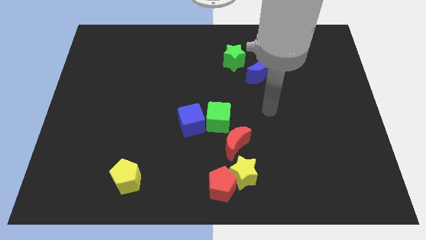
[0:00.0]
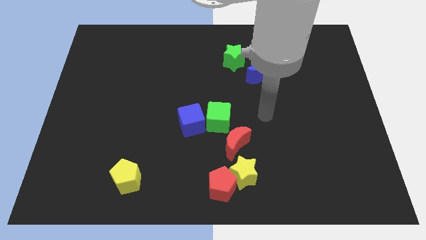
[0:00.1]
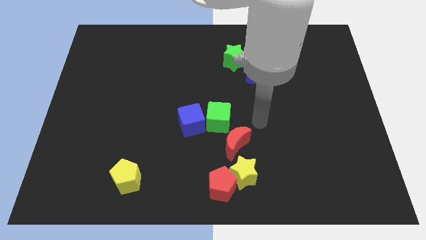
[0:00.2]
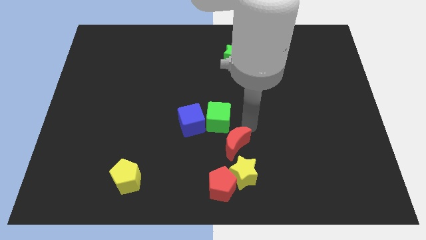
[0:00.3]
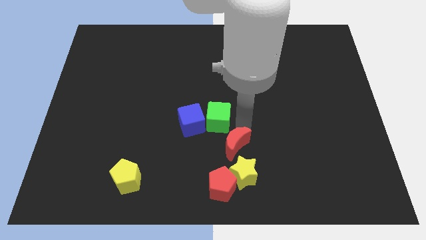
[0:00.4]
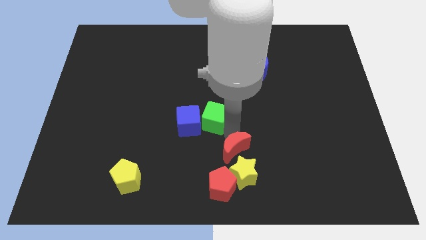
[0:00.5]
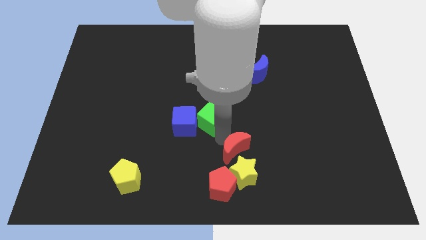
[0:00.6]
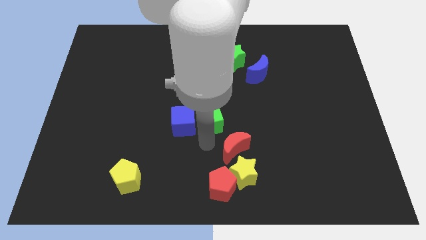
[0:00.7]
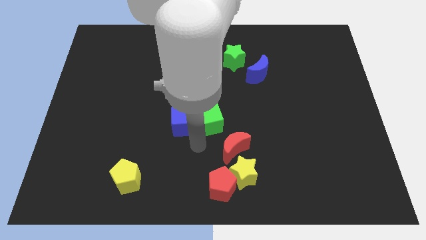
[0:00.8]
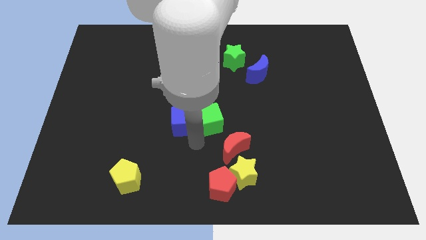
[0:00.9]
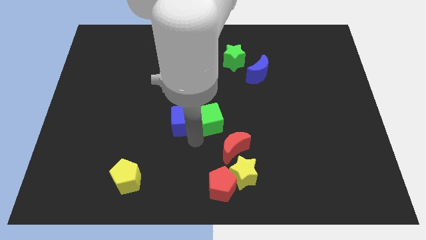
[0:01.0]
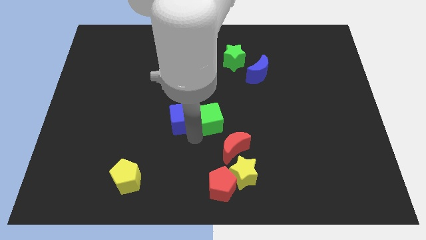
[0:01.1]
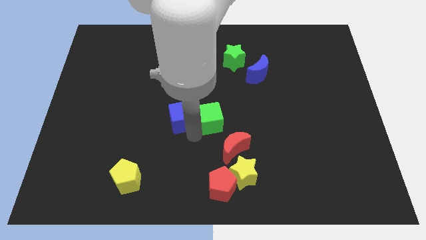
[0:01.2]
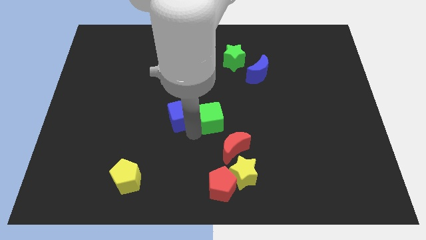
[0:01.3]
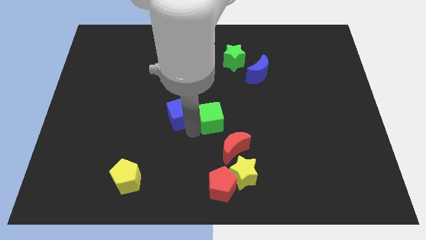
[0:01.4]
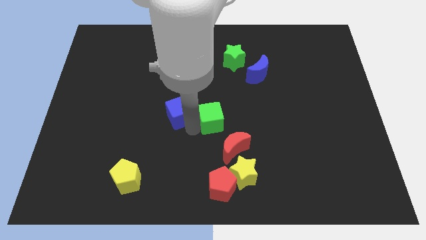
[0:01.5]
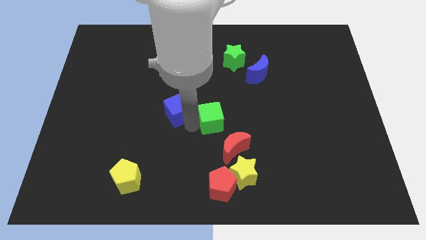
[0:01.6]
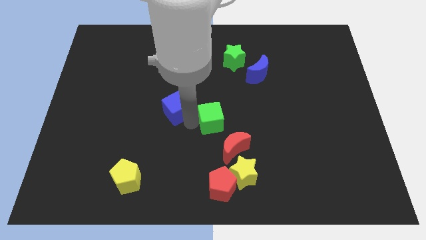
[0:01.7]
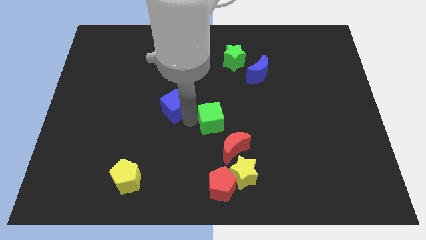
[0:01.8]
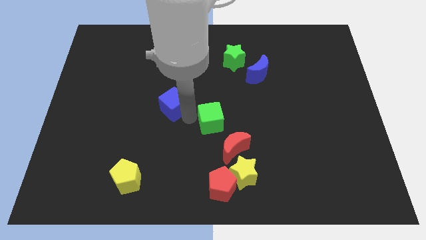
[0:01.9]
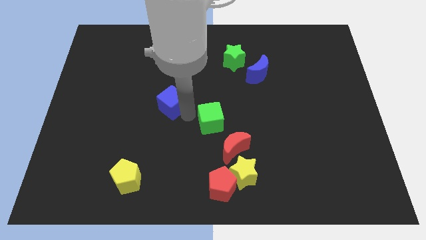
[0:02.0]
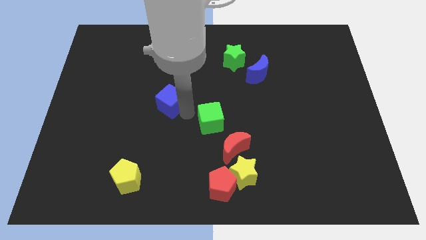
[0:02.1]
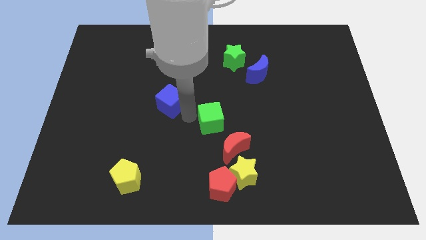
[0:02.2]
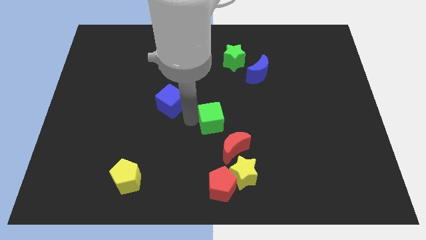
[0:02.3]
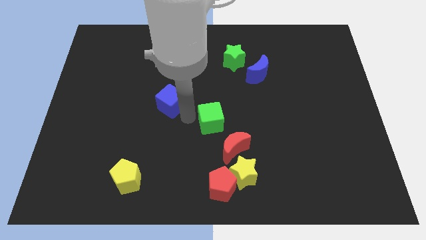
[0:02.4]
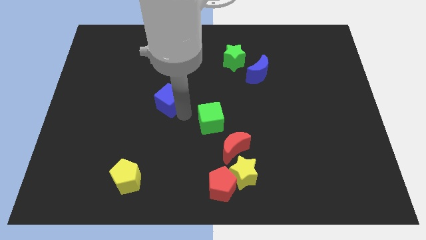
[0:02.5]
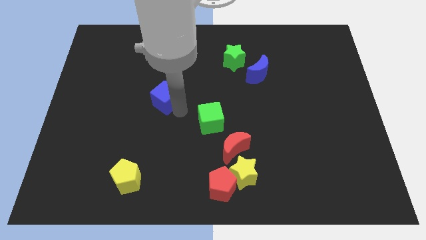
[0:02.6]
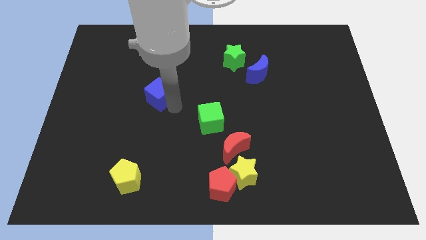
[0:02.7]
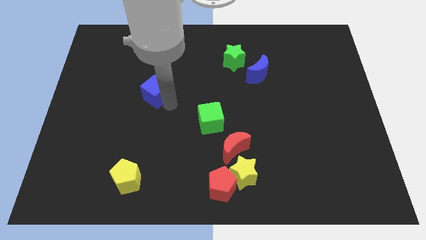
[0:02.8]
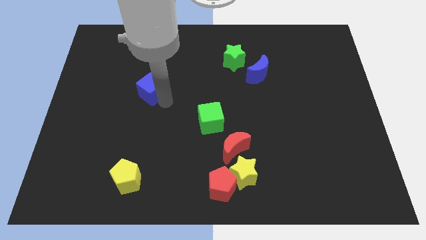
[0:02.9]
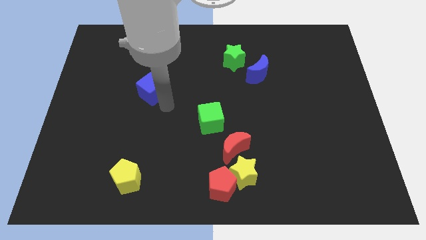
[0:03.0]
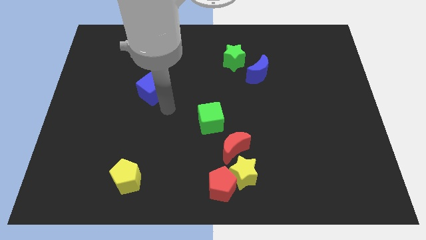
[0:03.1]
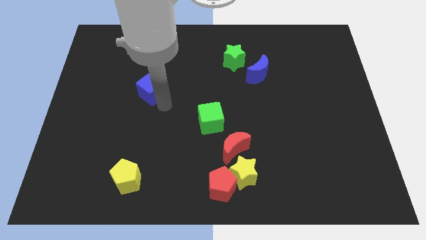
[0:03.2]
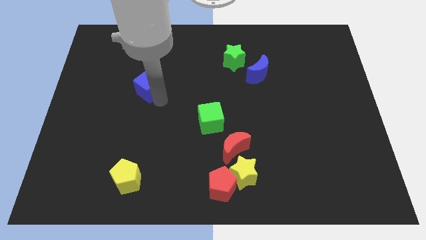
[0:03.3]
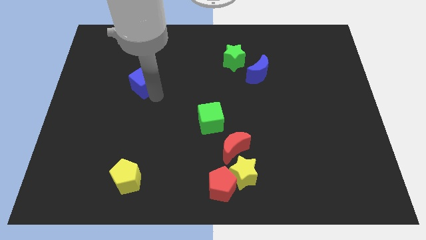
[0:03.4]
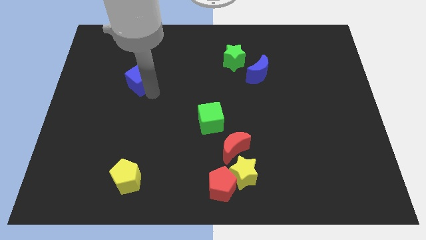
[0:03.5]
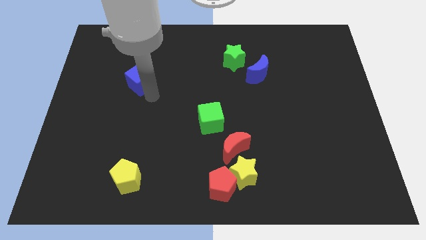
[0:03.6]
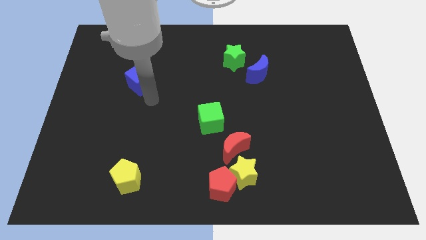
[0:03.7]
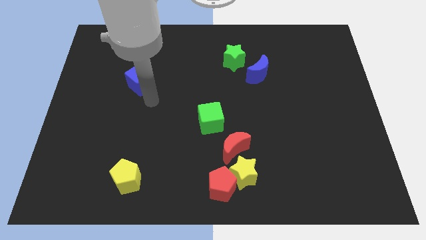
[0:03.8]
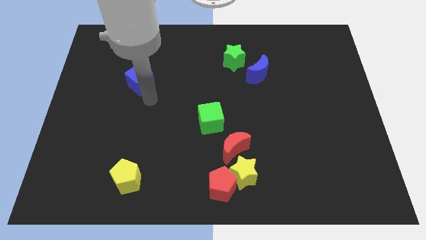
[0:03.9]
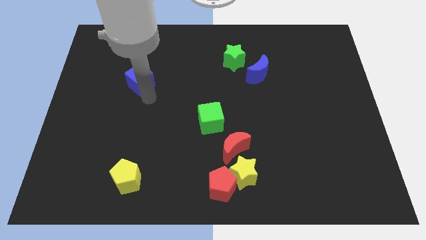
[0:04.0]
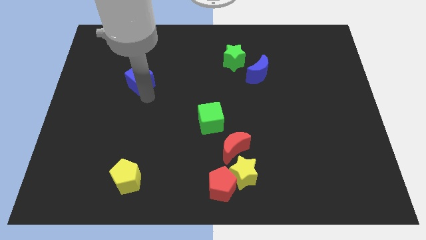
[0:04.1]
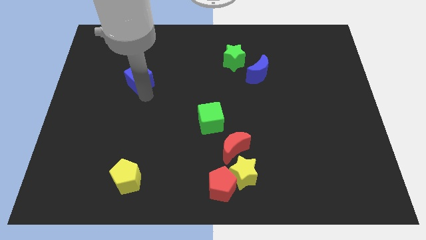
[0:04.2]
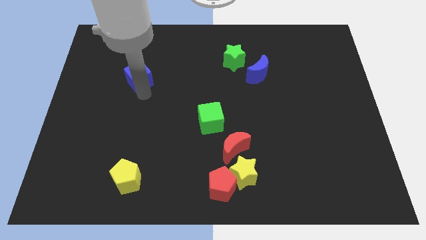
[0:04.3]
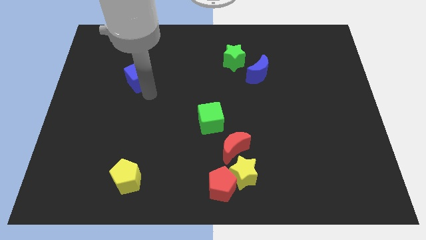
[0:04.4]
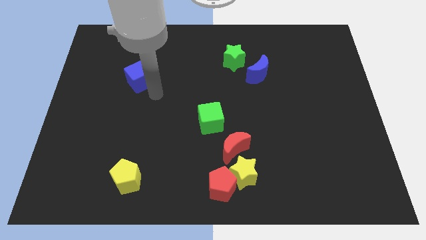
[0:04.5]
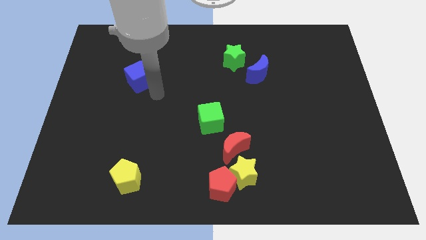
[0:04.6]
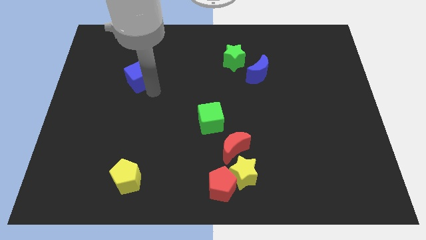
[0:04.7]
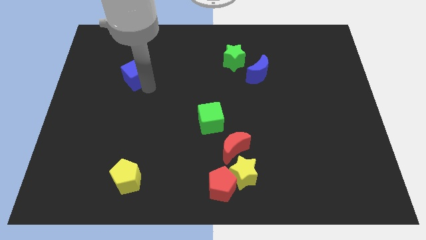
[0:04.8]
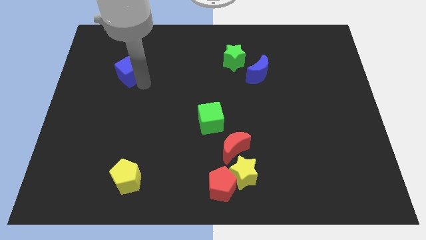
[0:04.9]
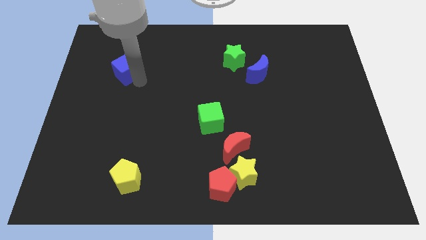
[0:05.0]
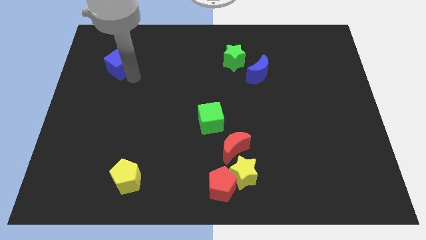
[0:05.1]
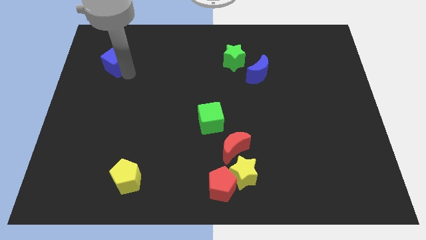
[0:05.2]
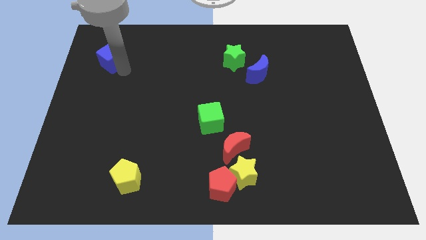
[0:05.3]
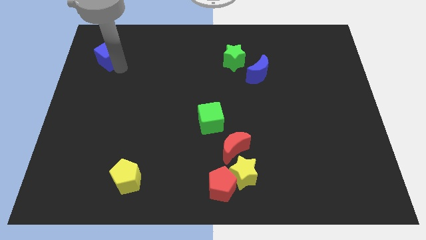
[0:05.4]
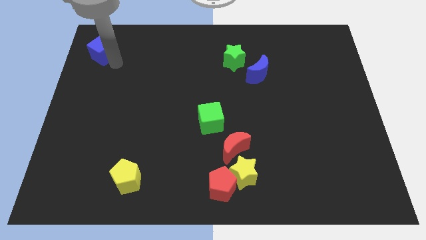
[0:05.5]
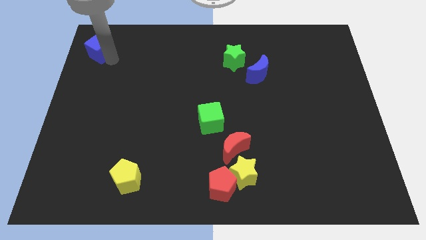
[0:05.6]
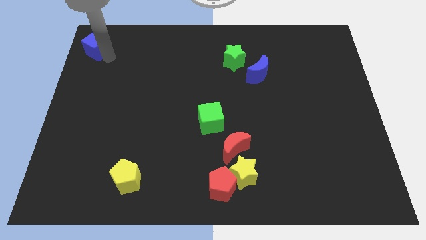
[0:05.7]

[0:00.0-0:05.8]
push the blue cube to the top left corner
